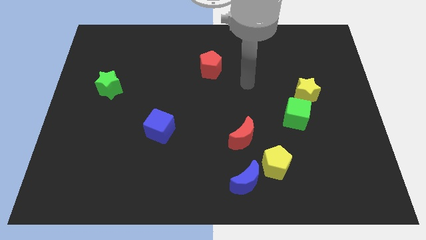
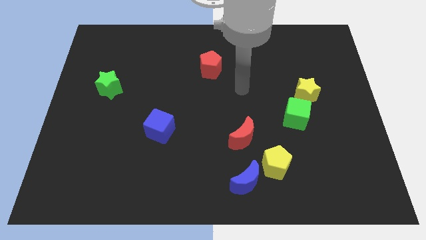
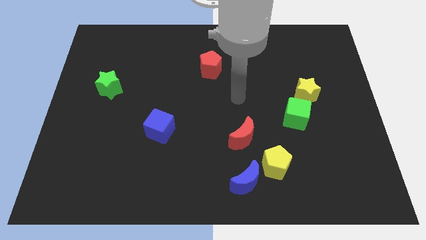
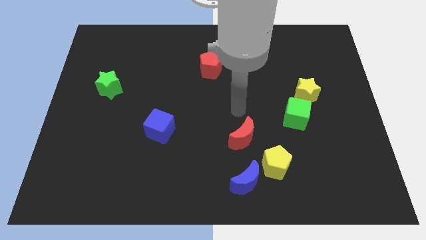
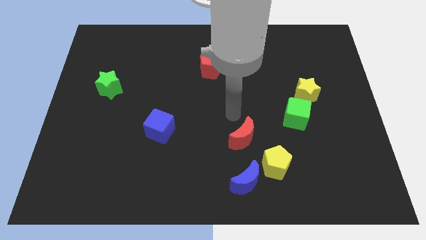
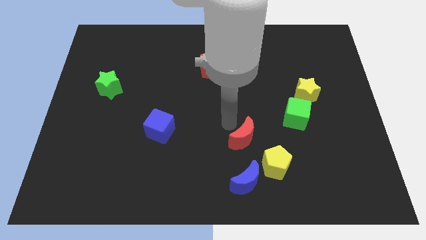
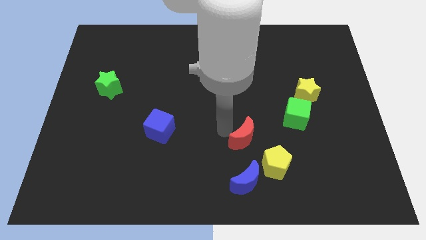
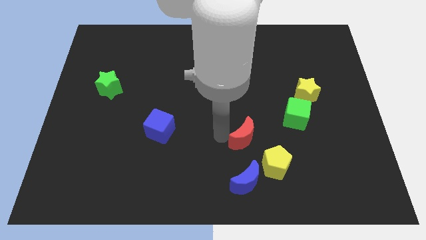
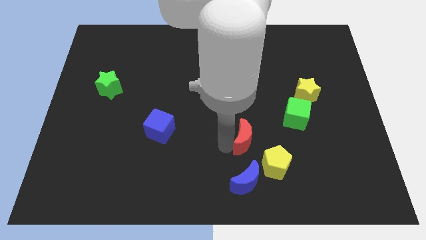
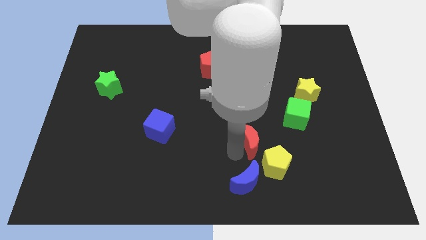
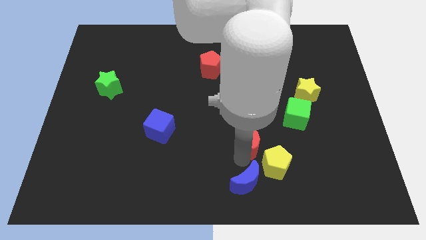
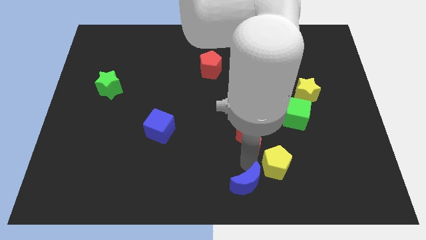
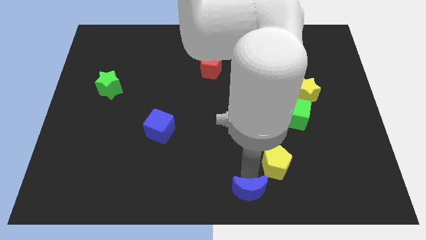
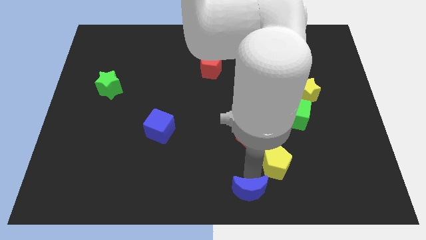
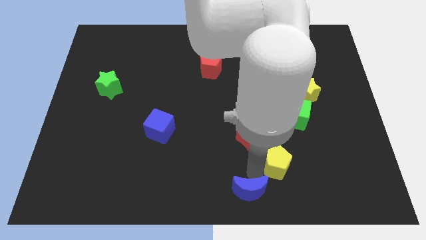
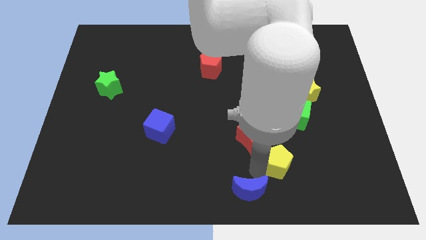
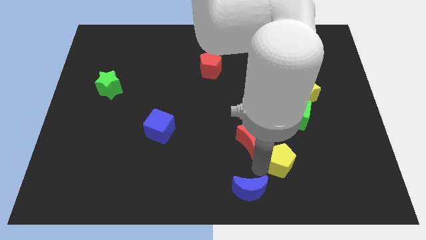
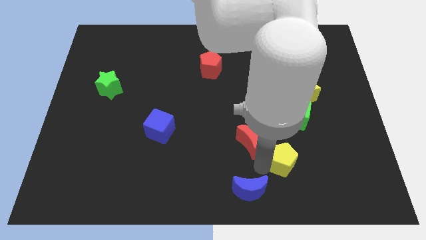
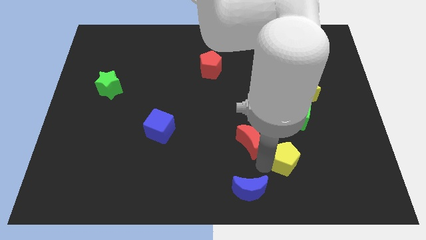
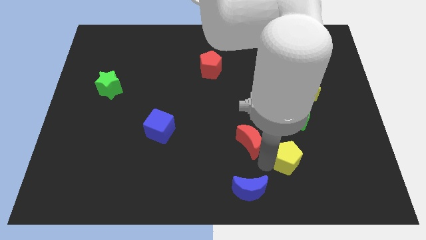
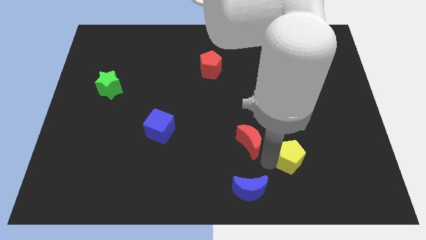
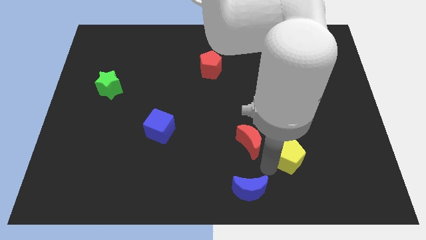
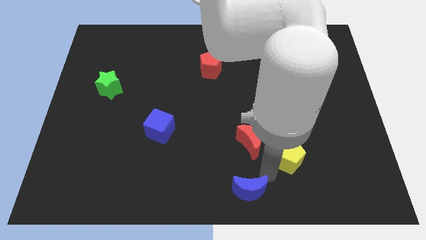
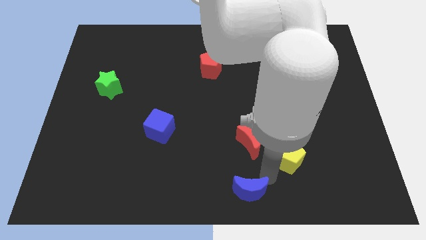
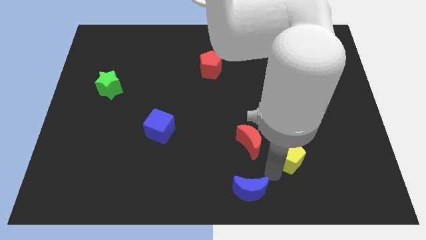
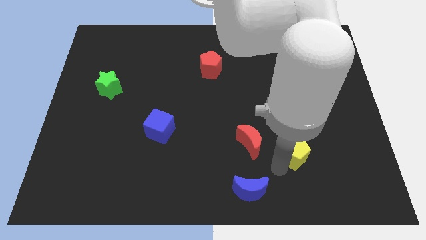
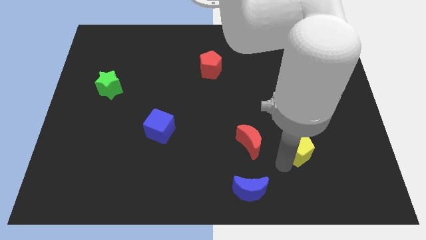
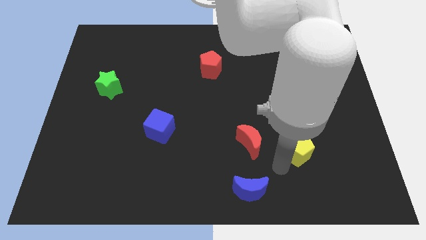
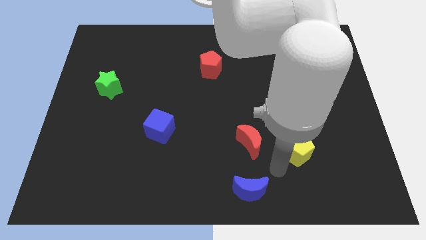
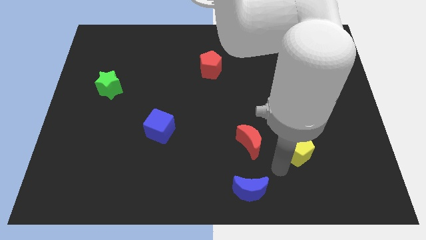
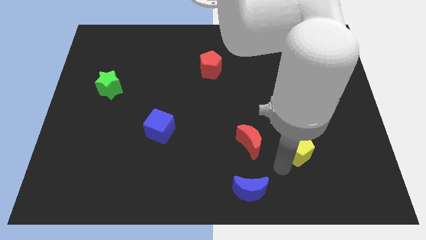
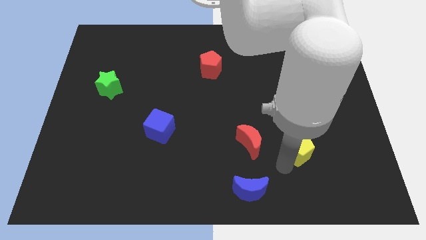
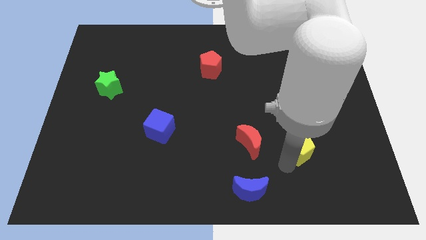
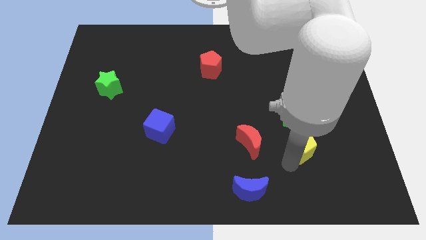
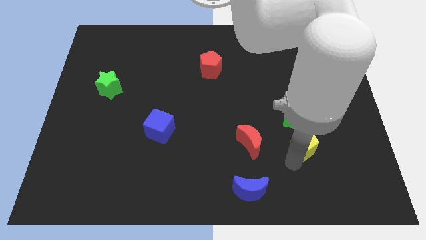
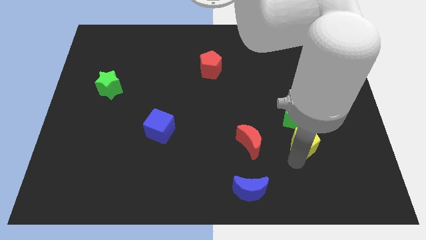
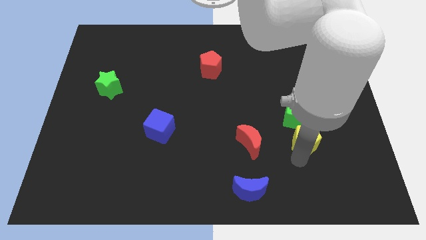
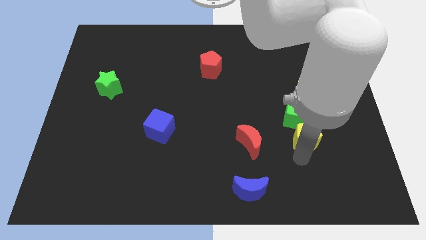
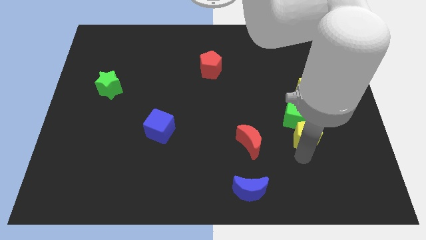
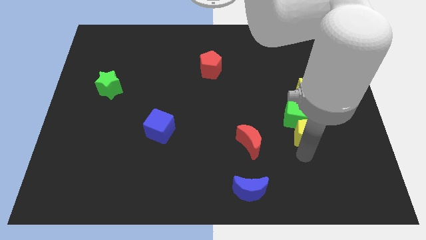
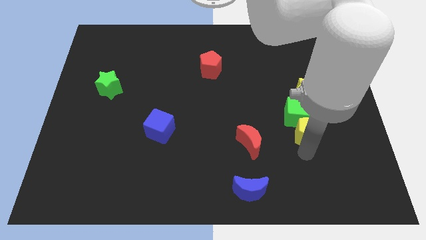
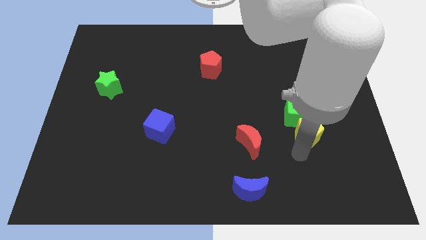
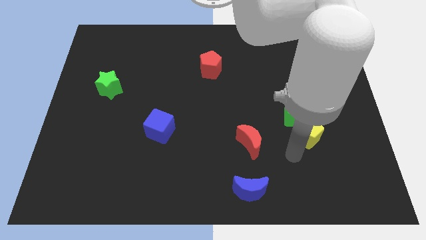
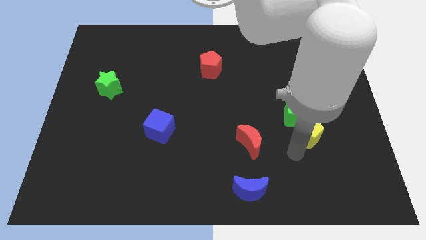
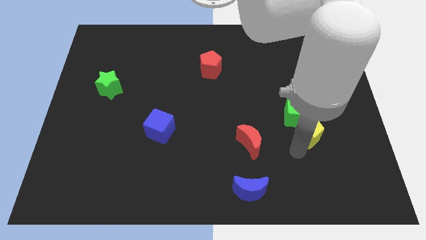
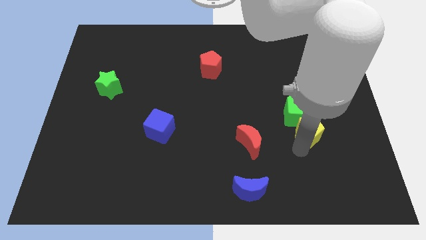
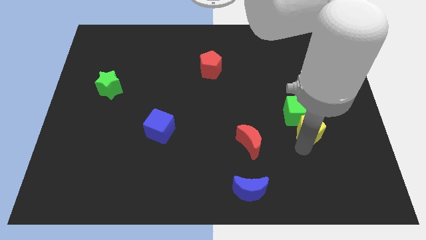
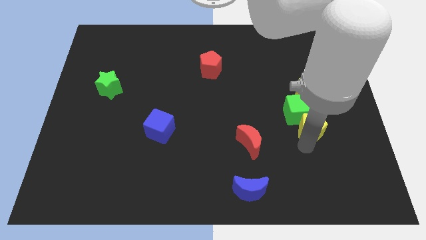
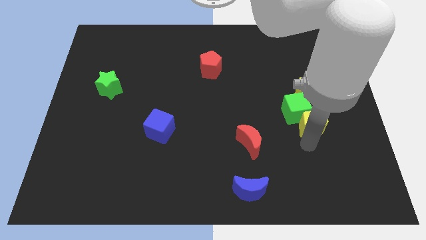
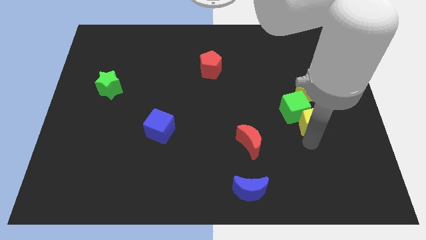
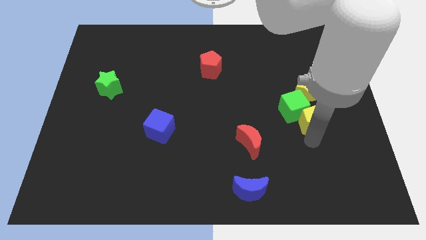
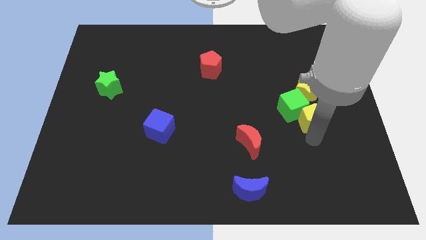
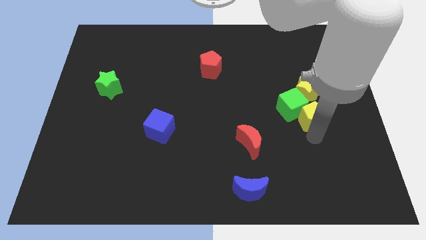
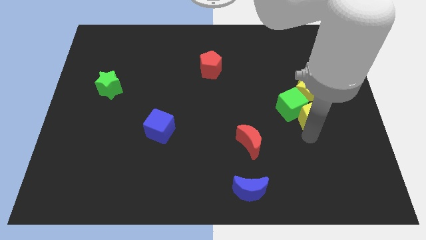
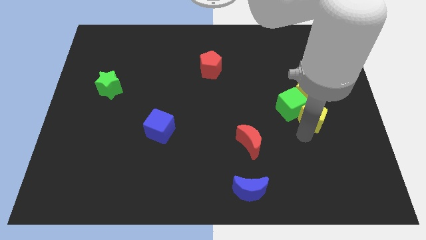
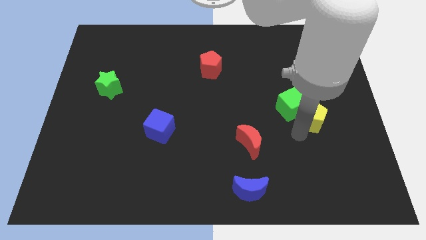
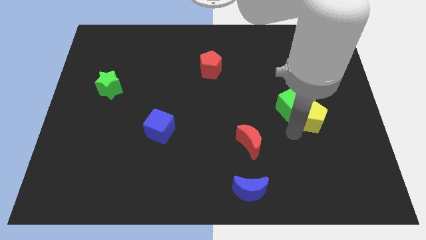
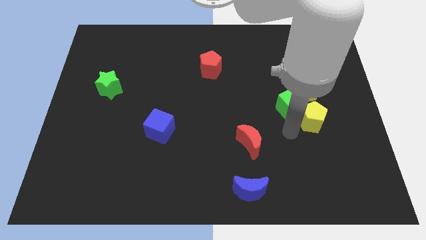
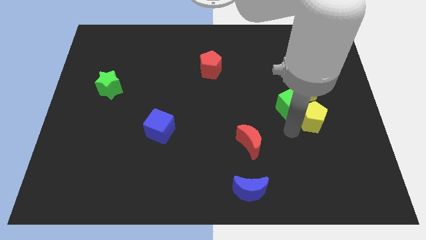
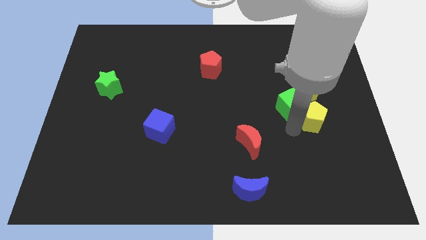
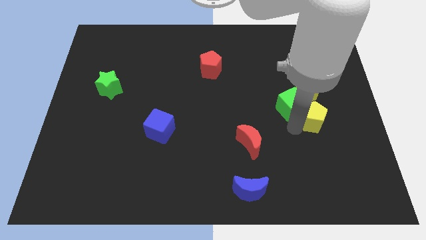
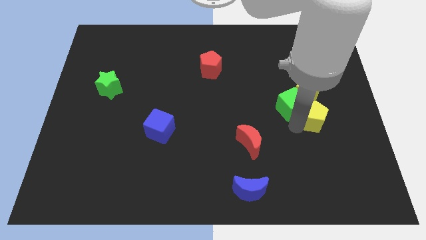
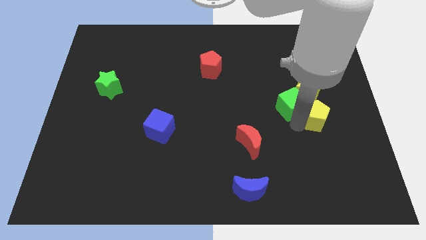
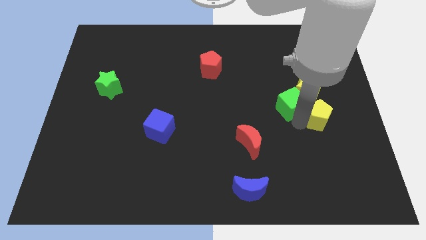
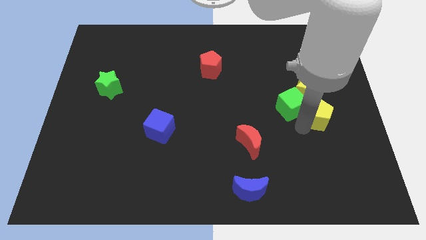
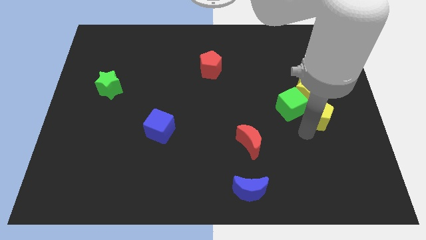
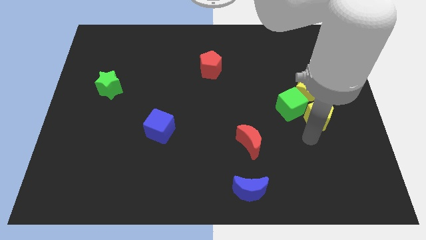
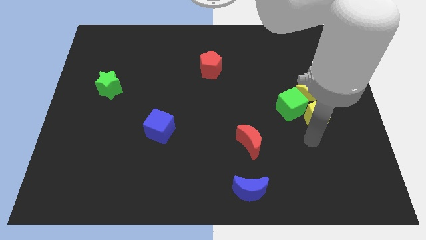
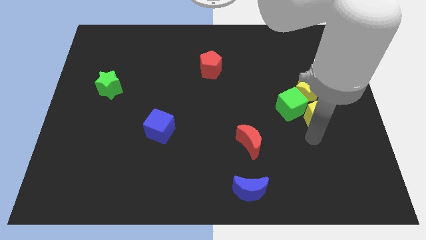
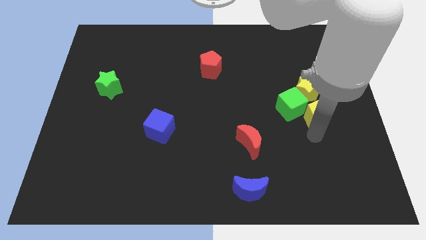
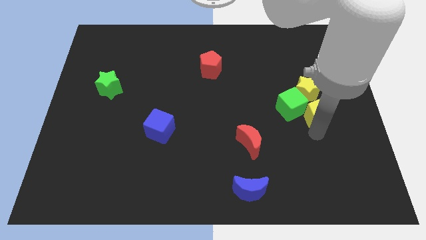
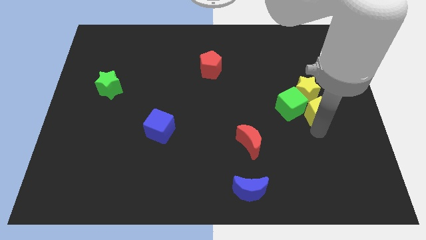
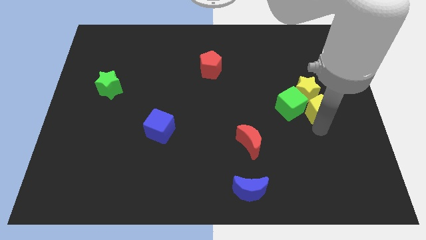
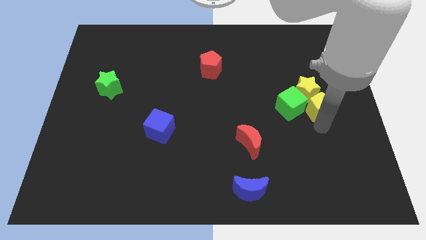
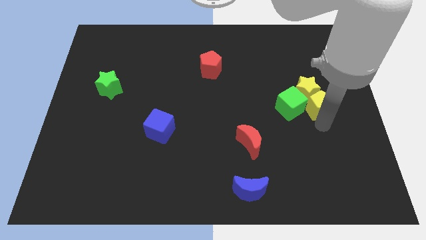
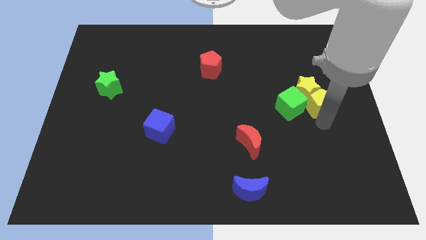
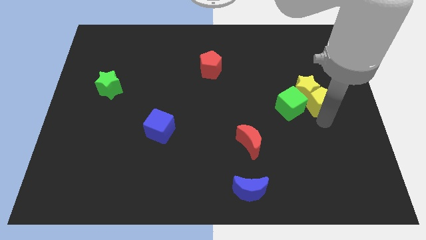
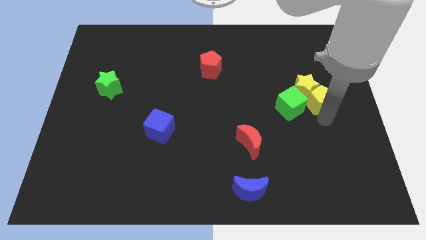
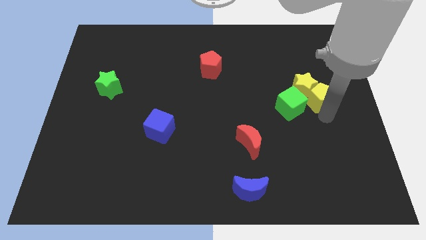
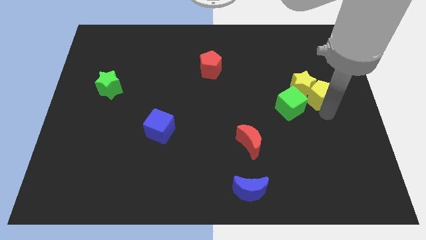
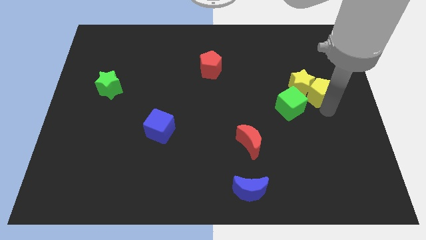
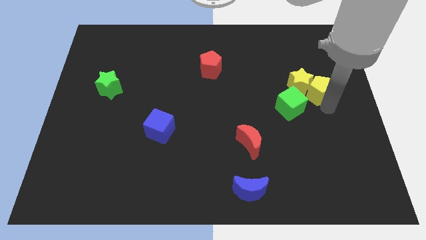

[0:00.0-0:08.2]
slide the yellow pentagon to the top right of the yellow star
